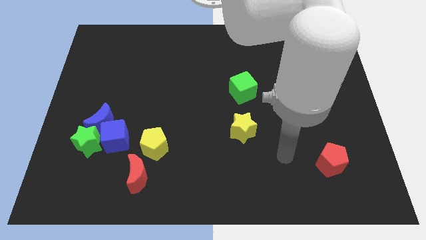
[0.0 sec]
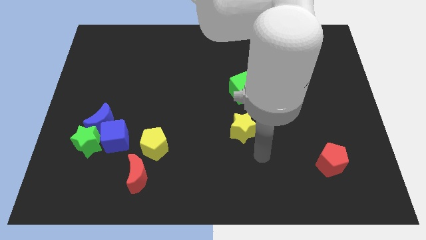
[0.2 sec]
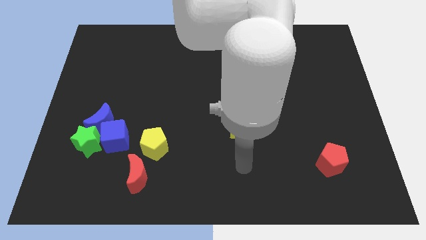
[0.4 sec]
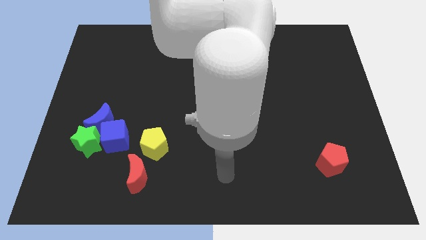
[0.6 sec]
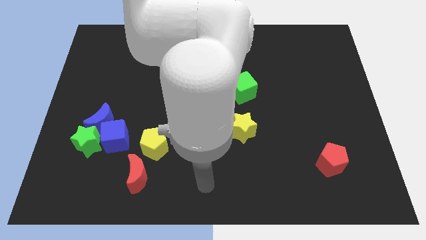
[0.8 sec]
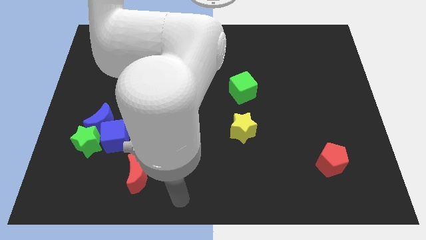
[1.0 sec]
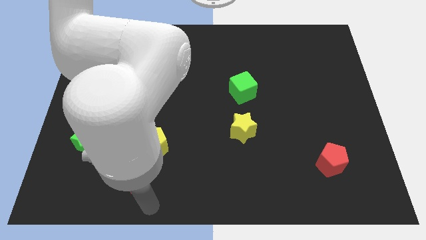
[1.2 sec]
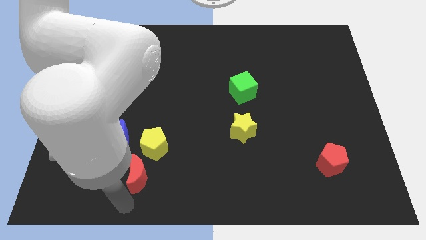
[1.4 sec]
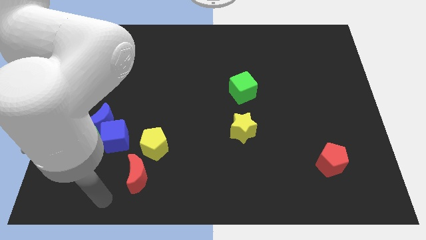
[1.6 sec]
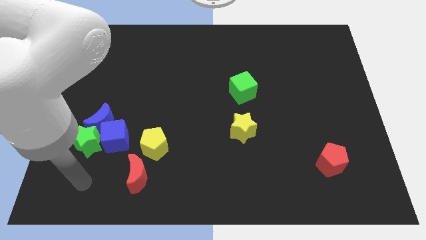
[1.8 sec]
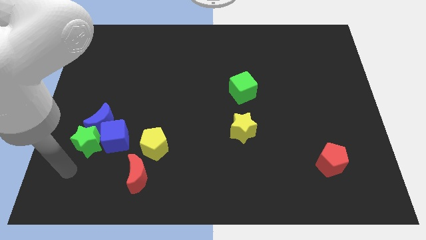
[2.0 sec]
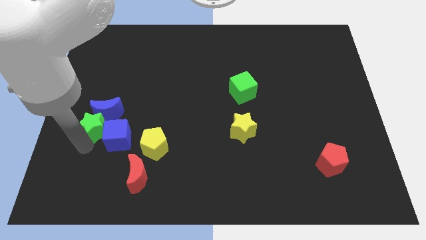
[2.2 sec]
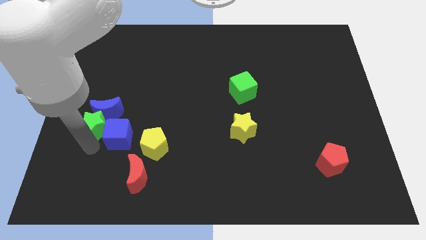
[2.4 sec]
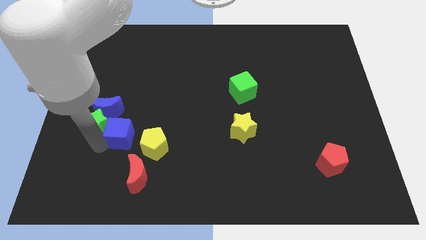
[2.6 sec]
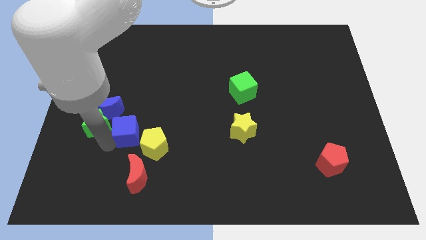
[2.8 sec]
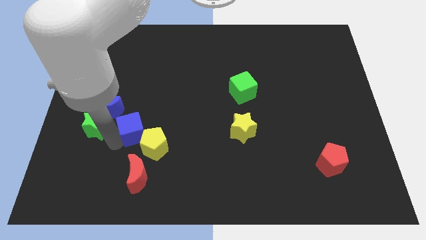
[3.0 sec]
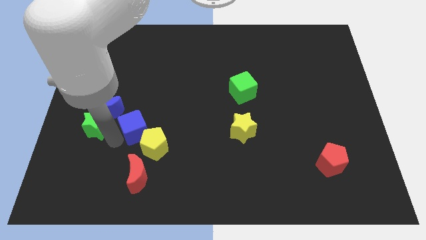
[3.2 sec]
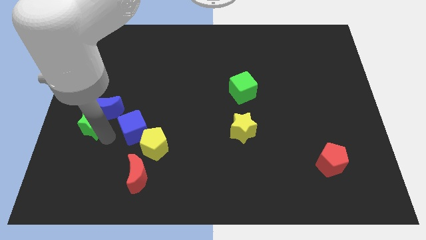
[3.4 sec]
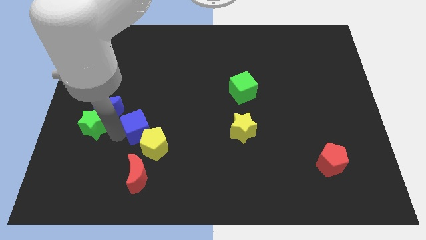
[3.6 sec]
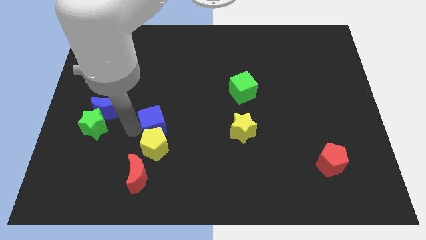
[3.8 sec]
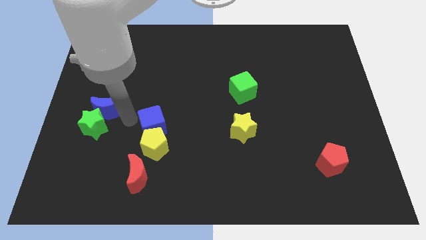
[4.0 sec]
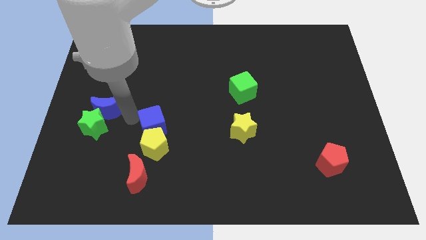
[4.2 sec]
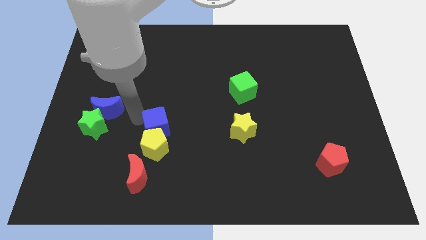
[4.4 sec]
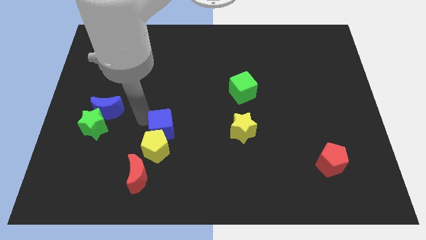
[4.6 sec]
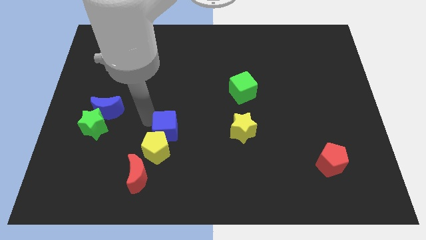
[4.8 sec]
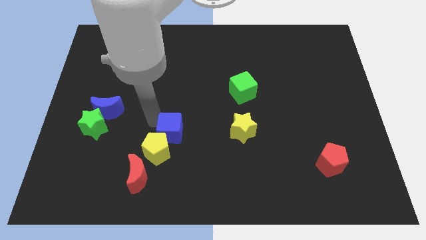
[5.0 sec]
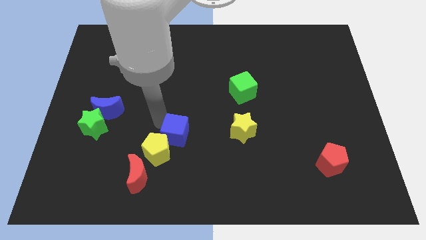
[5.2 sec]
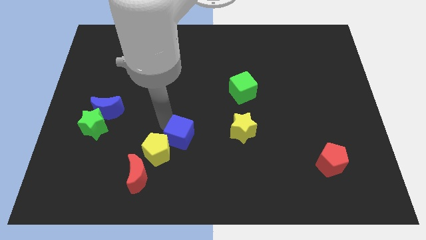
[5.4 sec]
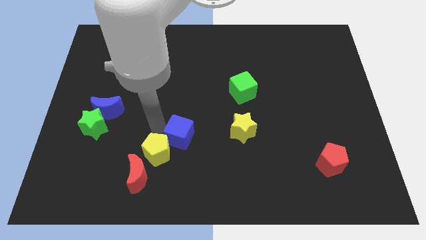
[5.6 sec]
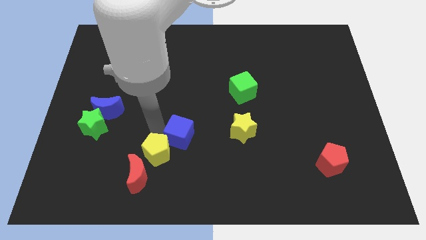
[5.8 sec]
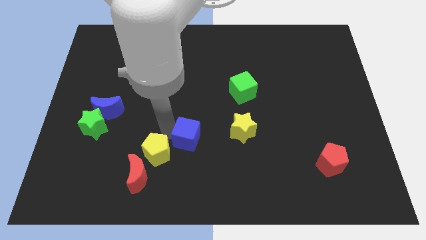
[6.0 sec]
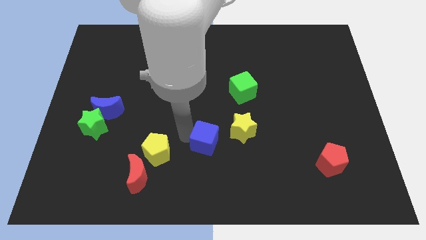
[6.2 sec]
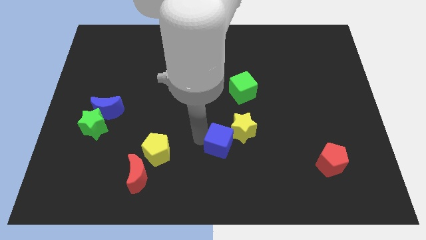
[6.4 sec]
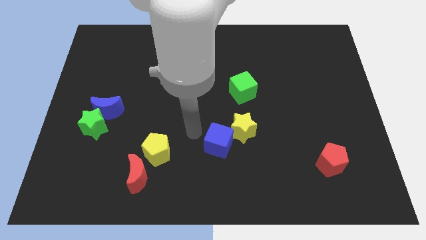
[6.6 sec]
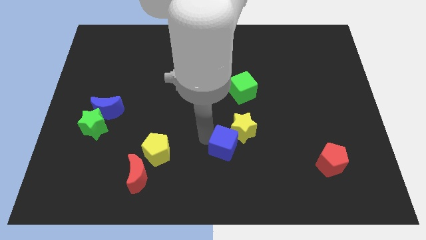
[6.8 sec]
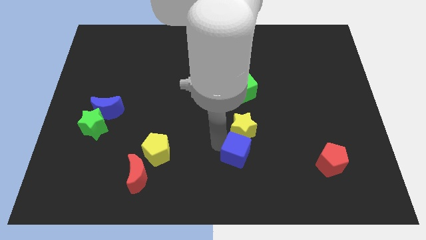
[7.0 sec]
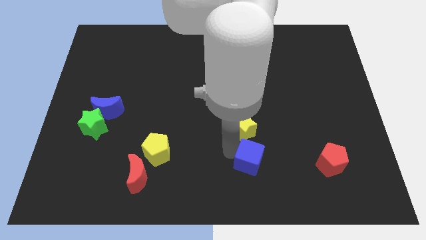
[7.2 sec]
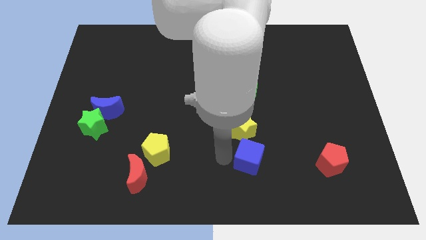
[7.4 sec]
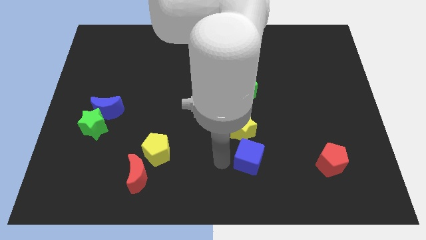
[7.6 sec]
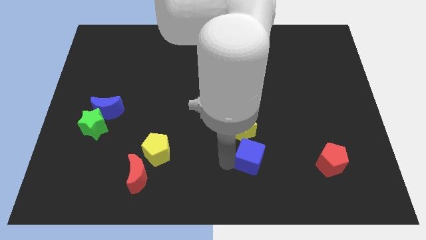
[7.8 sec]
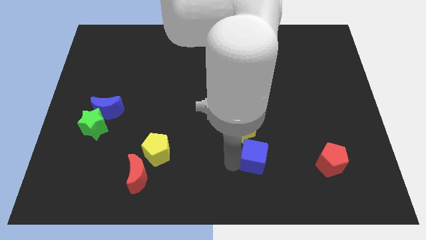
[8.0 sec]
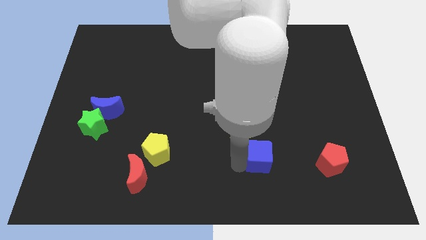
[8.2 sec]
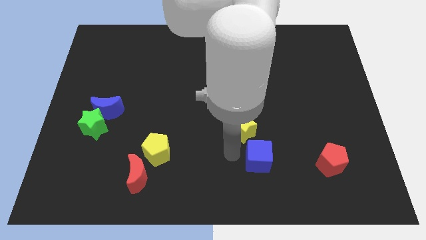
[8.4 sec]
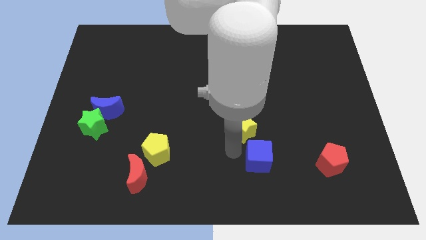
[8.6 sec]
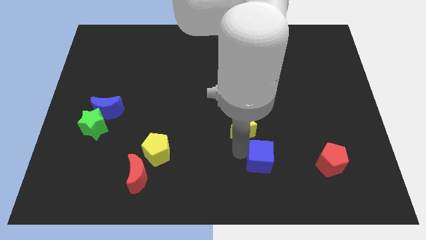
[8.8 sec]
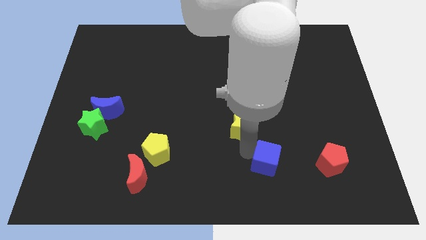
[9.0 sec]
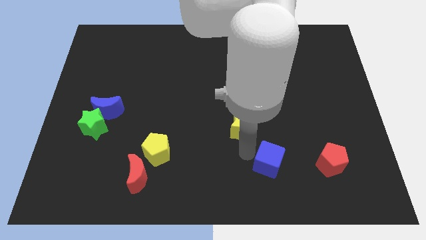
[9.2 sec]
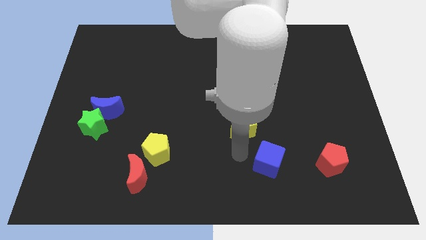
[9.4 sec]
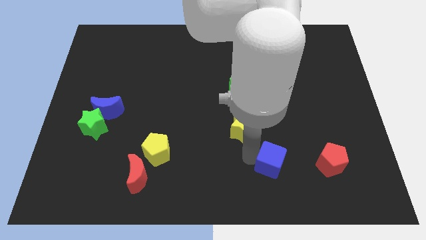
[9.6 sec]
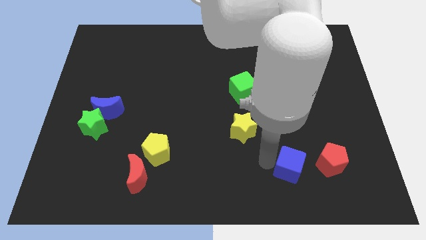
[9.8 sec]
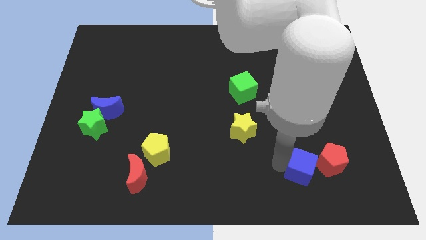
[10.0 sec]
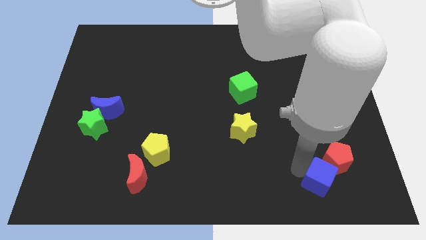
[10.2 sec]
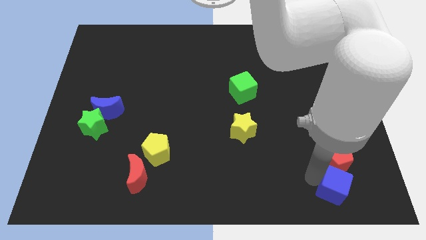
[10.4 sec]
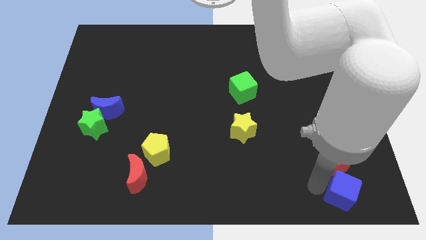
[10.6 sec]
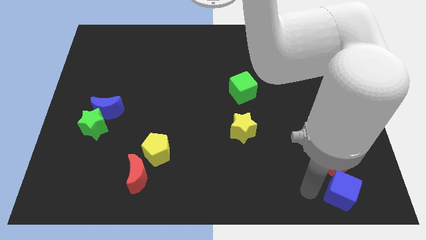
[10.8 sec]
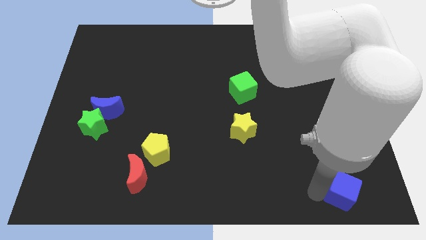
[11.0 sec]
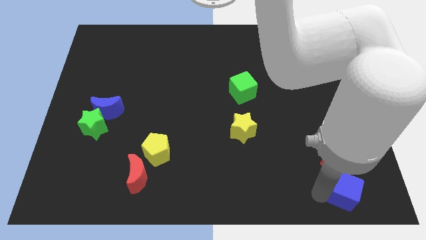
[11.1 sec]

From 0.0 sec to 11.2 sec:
move the blue cube to the bottom right

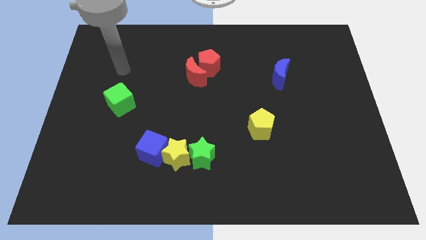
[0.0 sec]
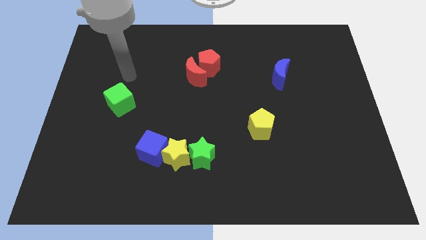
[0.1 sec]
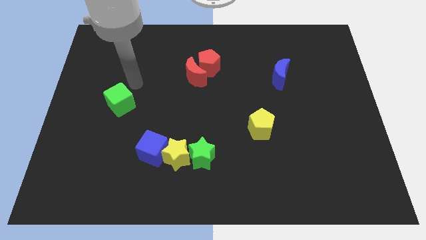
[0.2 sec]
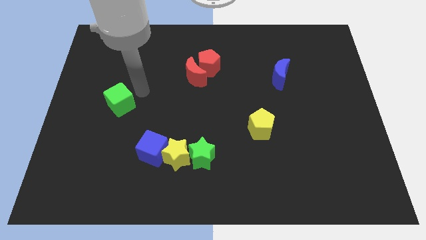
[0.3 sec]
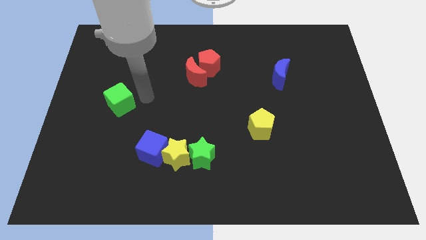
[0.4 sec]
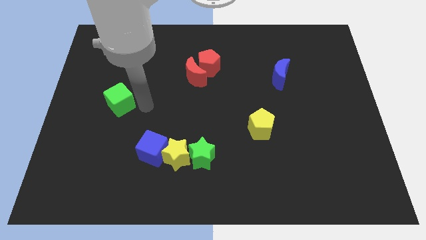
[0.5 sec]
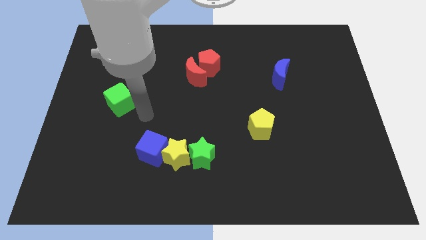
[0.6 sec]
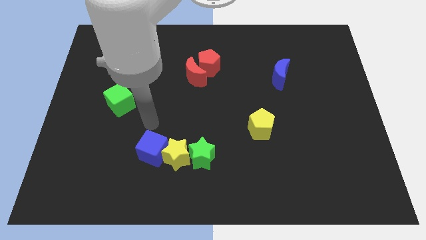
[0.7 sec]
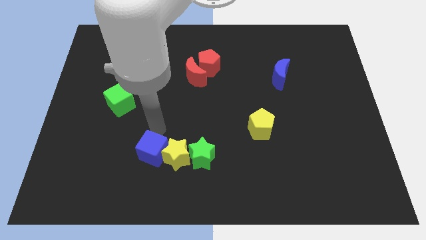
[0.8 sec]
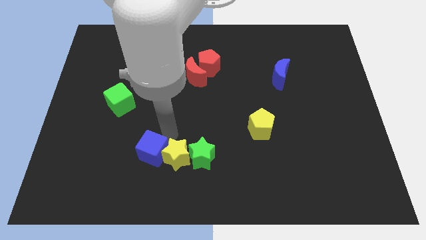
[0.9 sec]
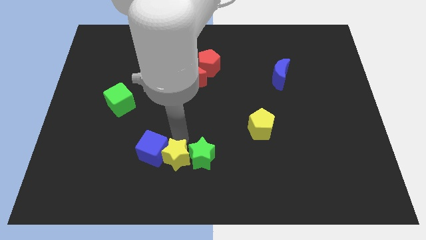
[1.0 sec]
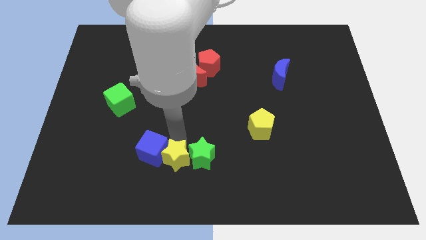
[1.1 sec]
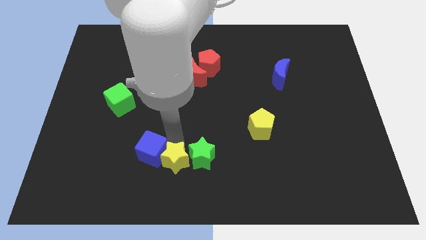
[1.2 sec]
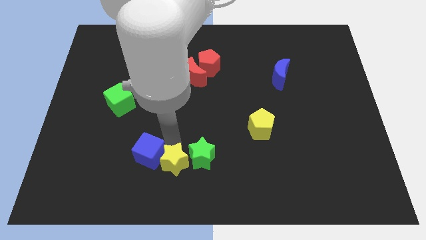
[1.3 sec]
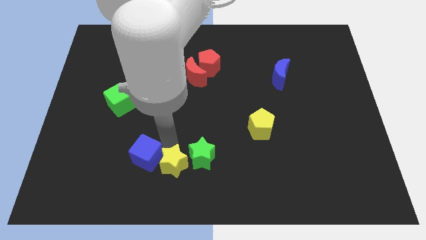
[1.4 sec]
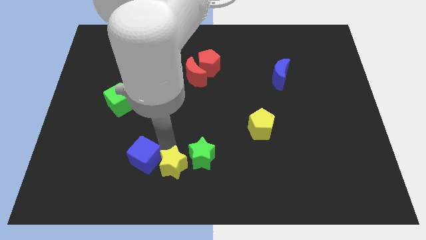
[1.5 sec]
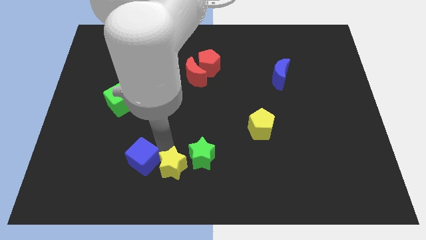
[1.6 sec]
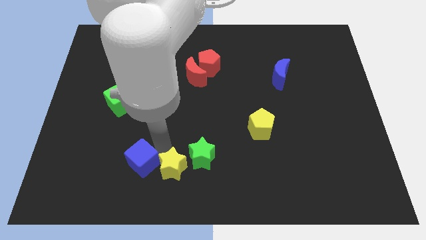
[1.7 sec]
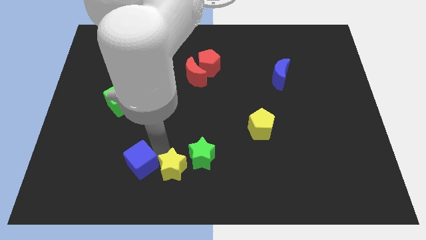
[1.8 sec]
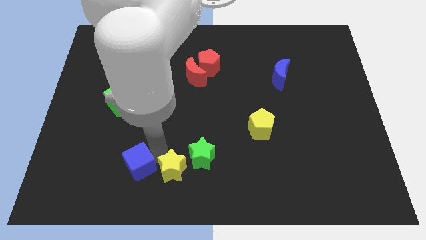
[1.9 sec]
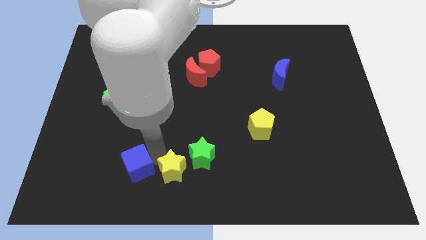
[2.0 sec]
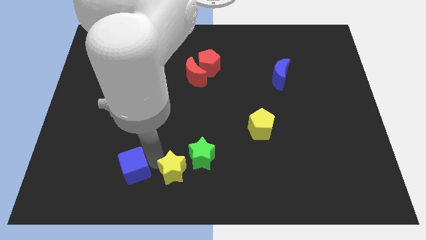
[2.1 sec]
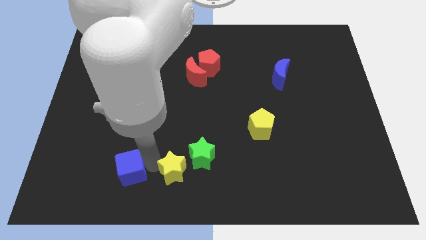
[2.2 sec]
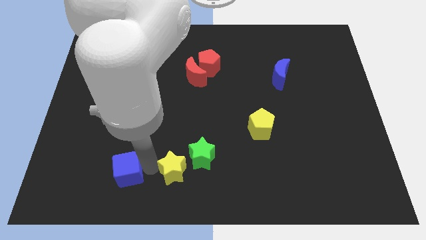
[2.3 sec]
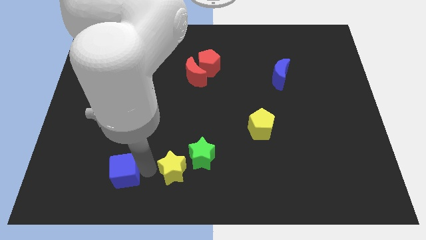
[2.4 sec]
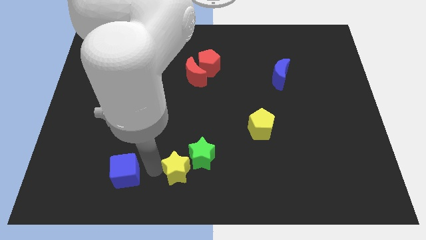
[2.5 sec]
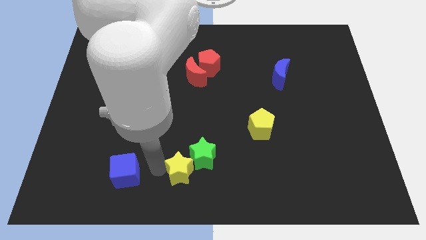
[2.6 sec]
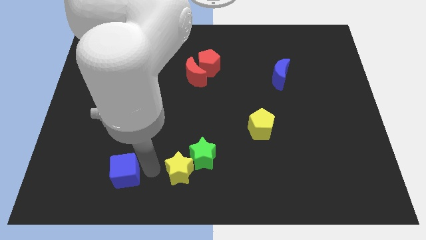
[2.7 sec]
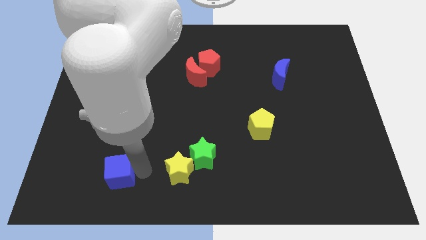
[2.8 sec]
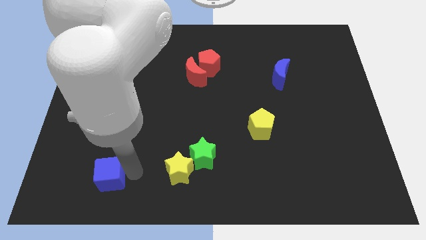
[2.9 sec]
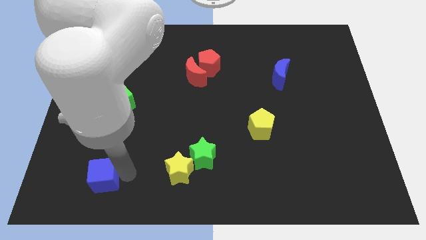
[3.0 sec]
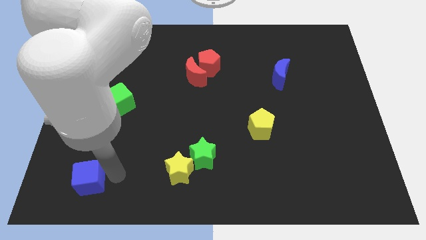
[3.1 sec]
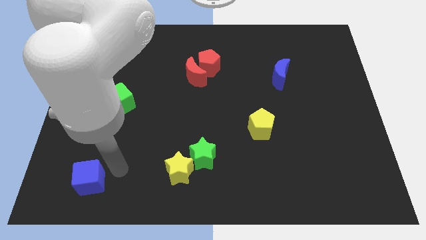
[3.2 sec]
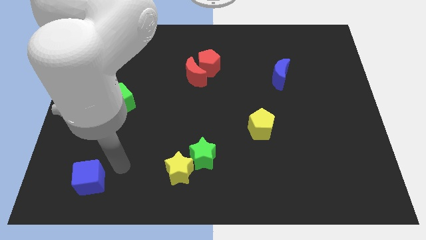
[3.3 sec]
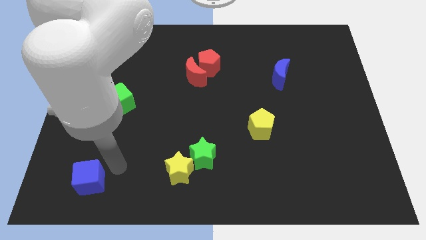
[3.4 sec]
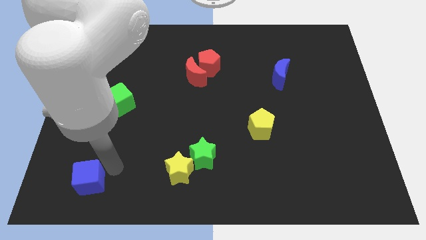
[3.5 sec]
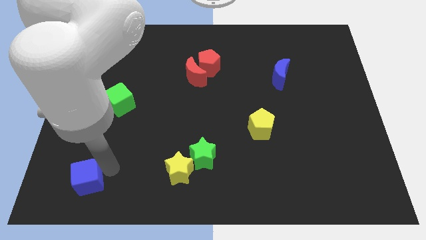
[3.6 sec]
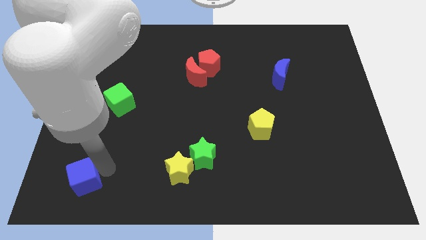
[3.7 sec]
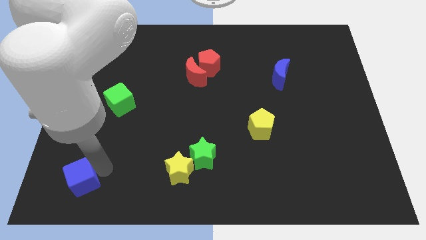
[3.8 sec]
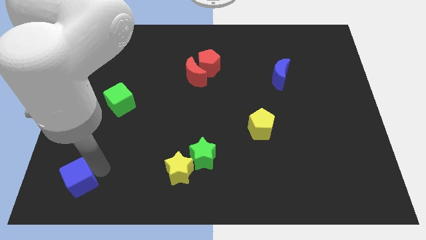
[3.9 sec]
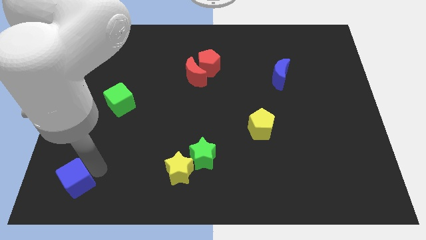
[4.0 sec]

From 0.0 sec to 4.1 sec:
push the blue cube to the bottom left of the board
